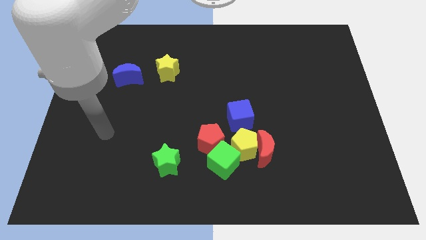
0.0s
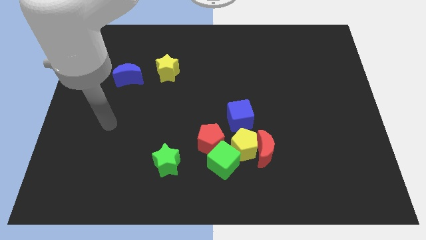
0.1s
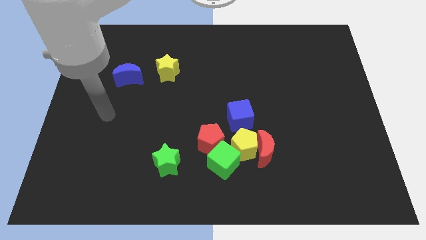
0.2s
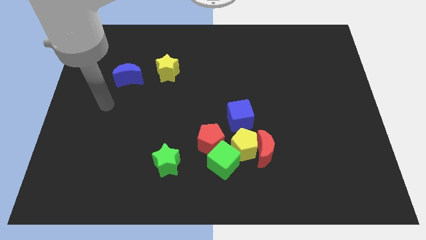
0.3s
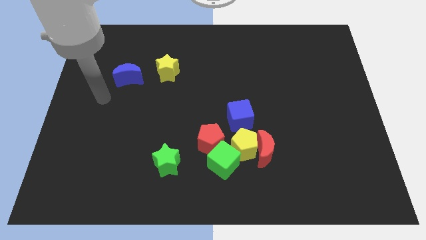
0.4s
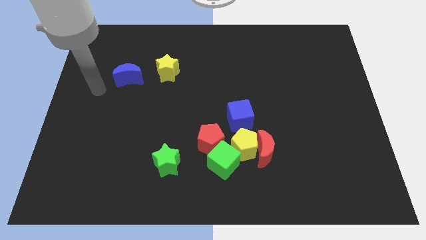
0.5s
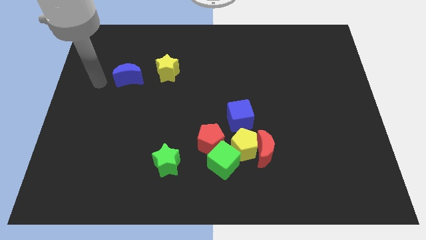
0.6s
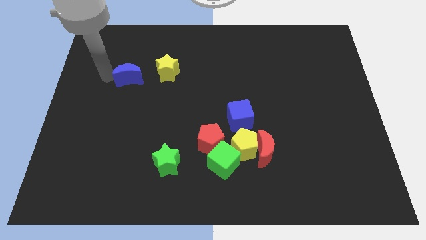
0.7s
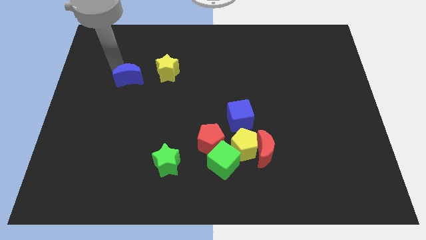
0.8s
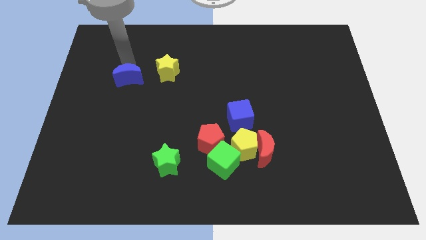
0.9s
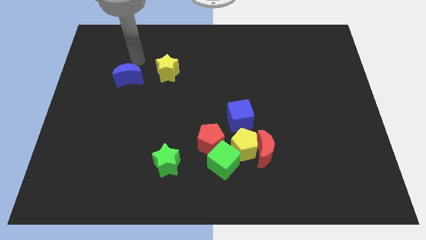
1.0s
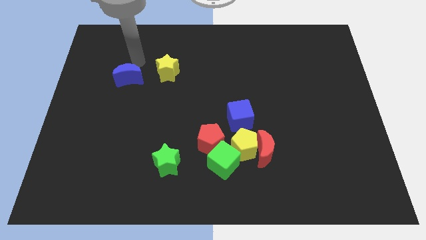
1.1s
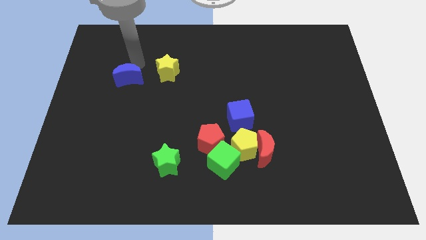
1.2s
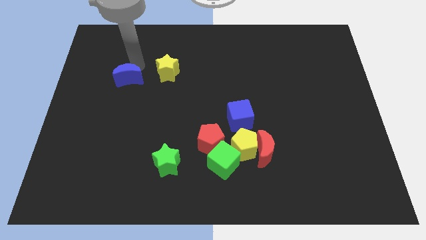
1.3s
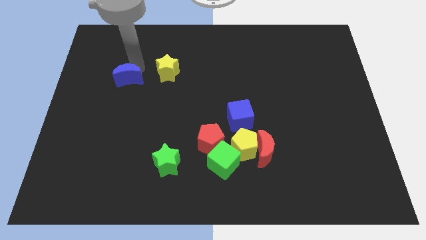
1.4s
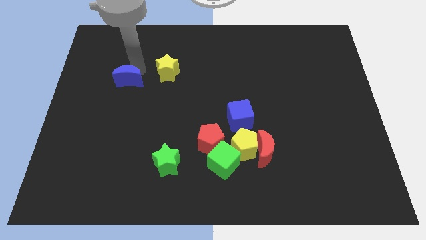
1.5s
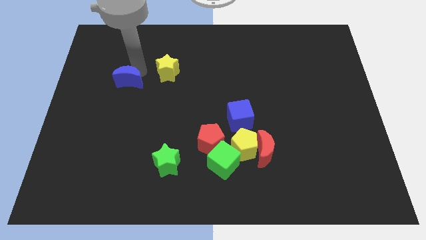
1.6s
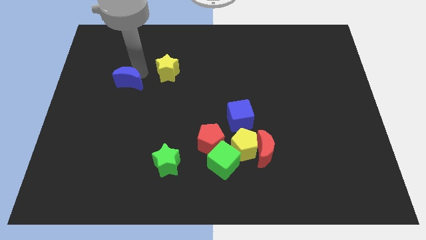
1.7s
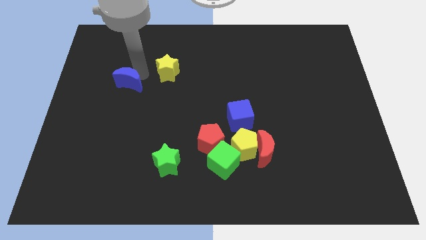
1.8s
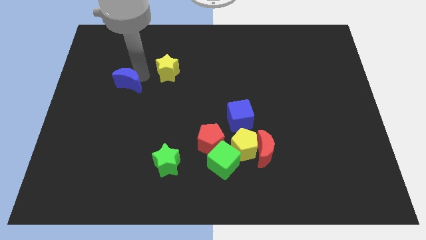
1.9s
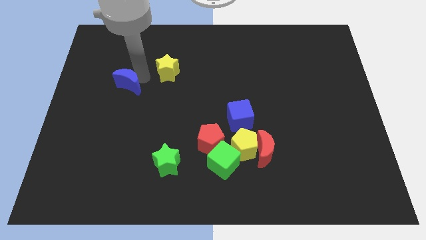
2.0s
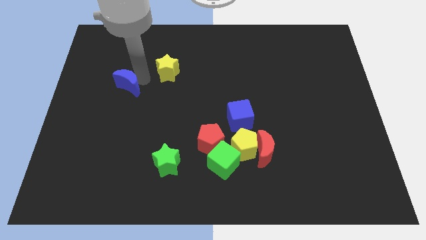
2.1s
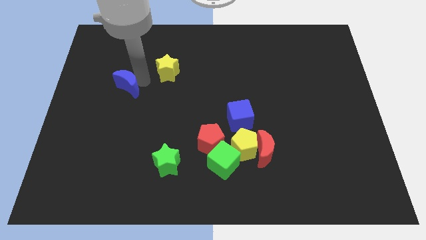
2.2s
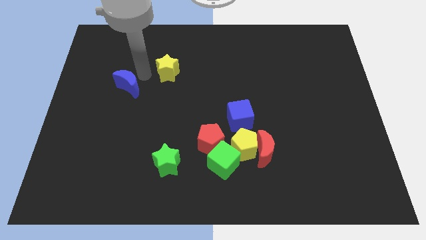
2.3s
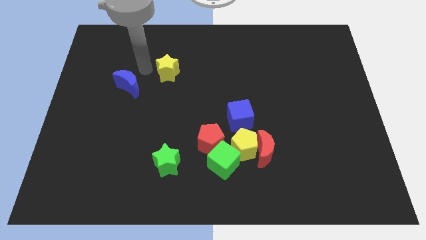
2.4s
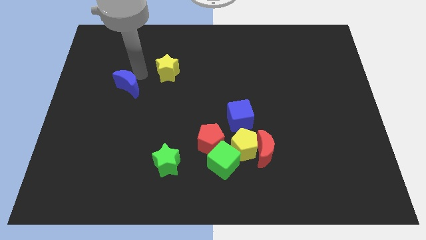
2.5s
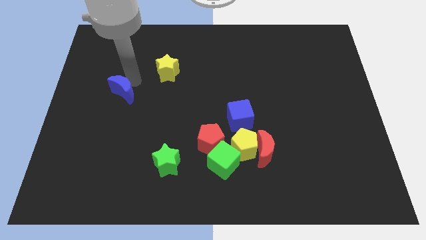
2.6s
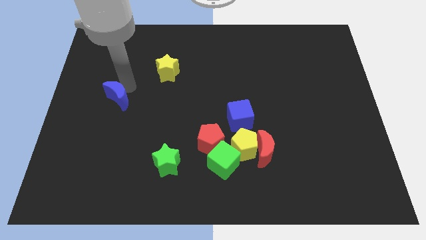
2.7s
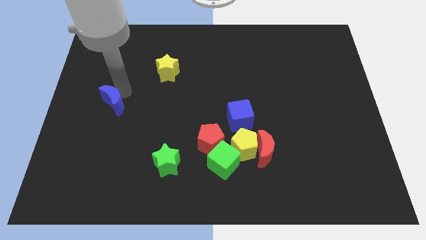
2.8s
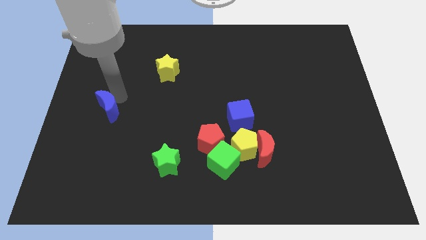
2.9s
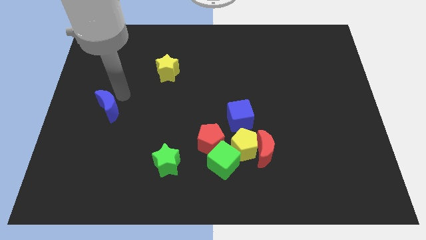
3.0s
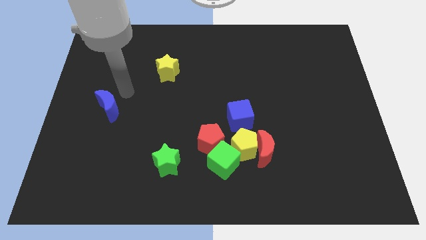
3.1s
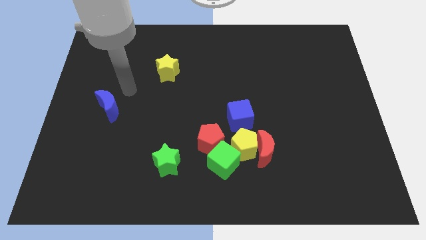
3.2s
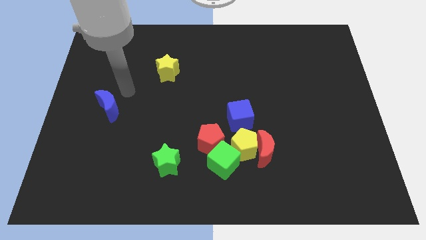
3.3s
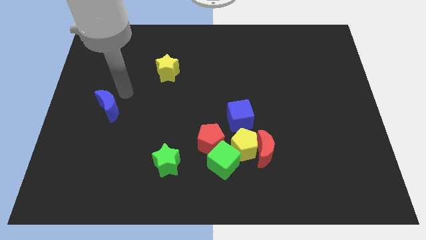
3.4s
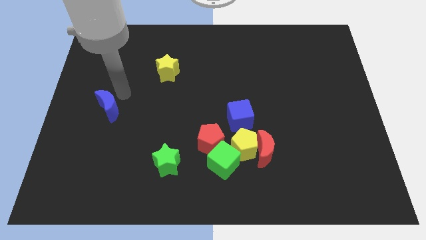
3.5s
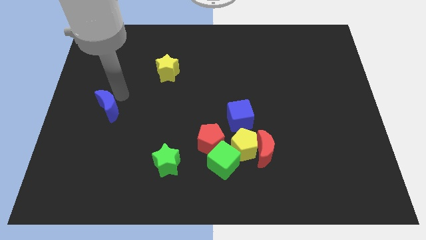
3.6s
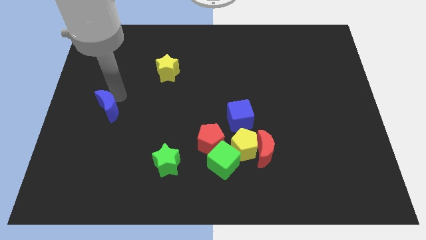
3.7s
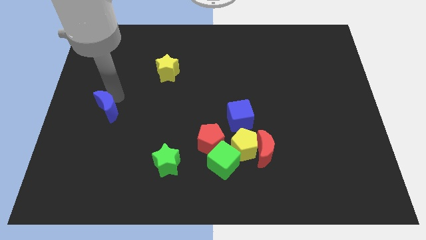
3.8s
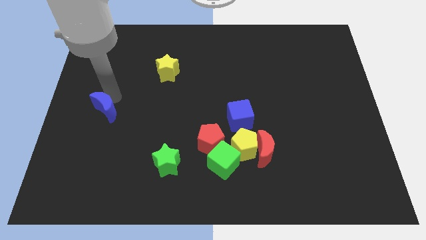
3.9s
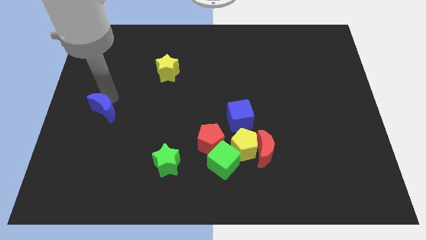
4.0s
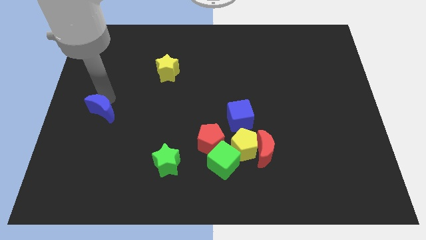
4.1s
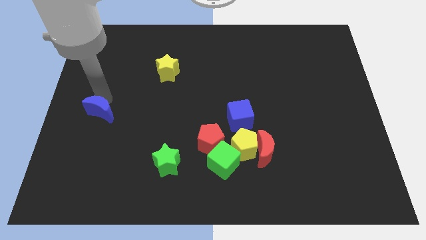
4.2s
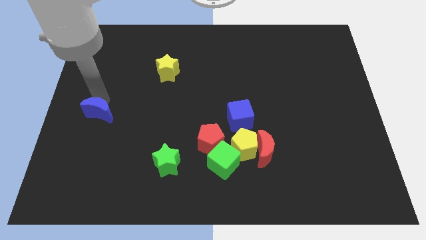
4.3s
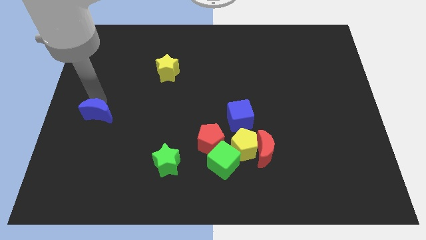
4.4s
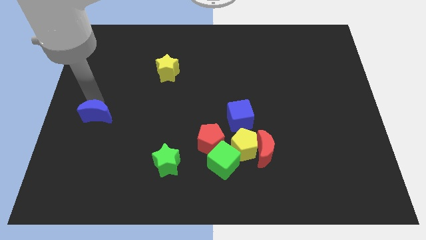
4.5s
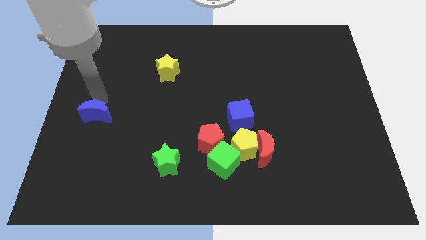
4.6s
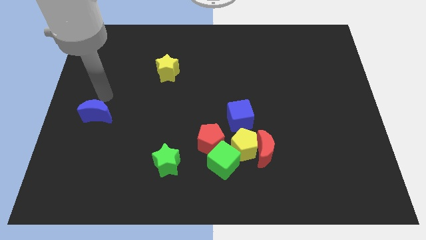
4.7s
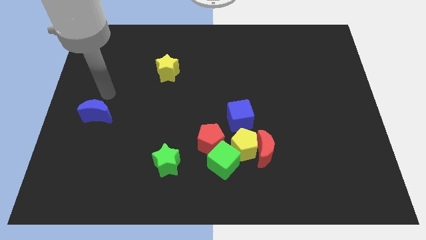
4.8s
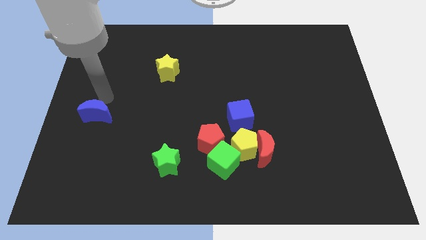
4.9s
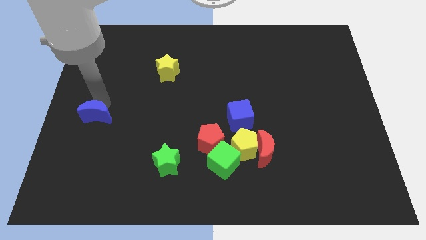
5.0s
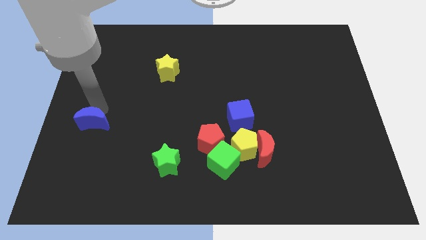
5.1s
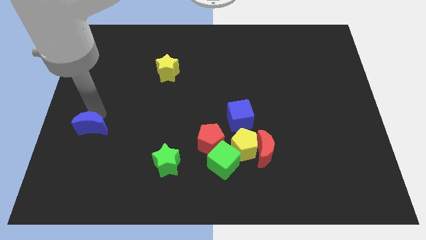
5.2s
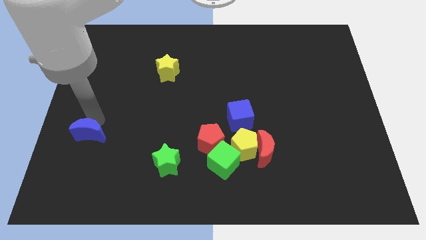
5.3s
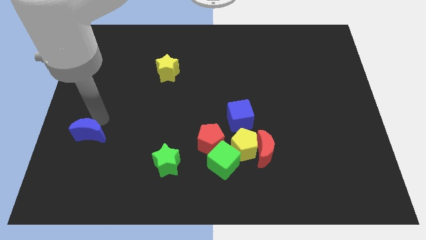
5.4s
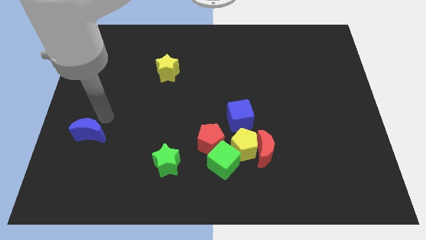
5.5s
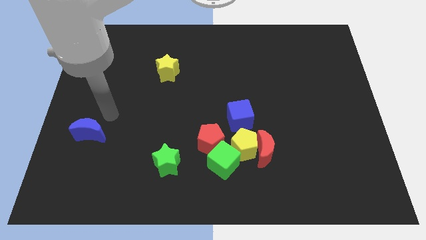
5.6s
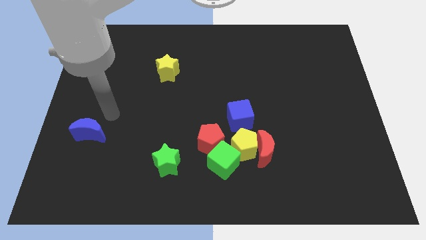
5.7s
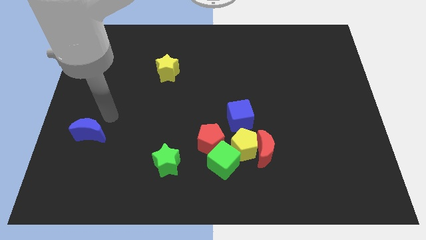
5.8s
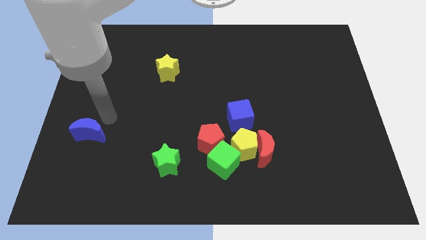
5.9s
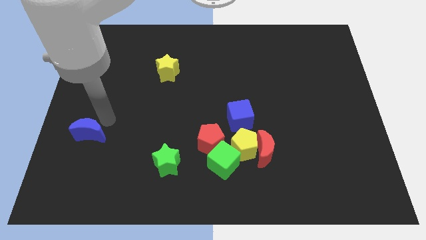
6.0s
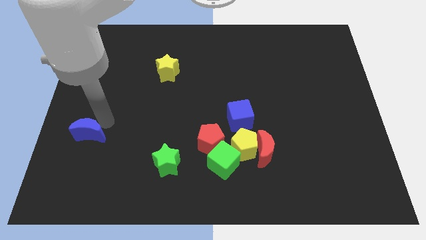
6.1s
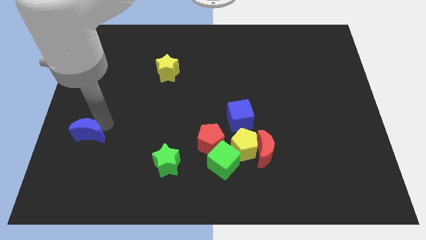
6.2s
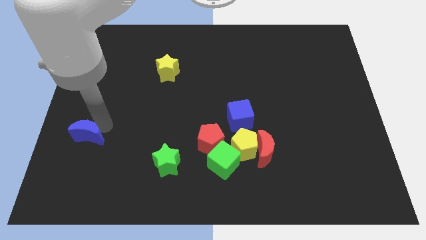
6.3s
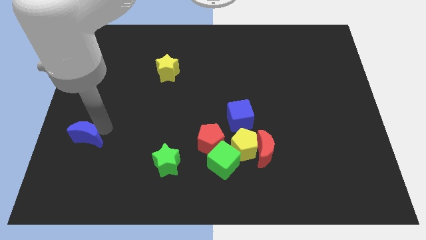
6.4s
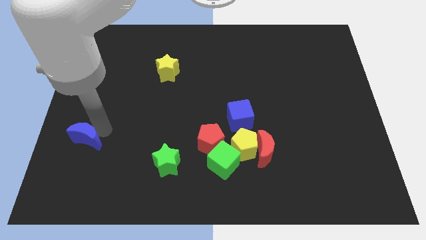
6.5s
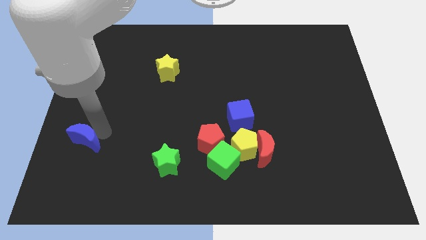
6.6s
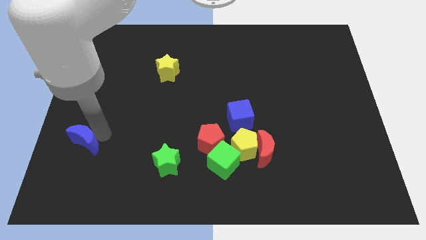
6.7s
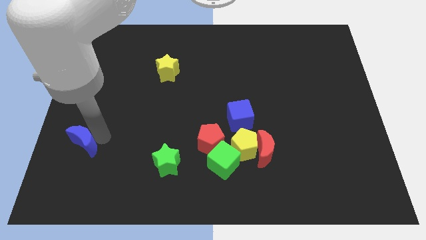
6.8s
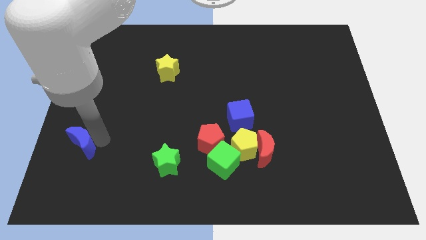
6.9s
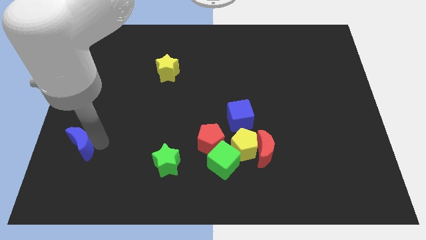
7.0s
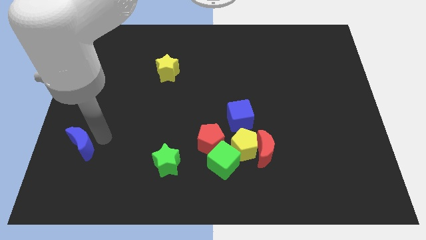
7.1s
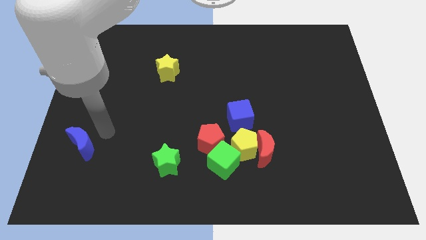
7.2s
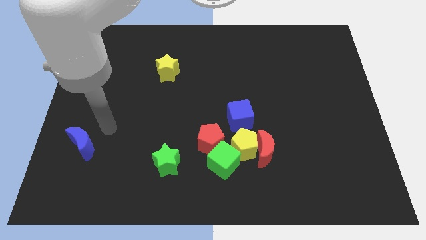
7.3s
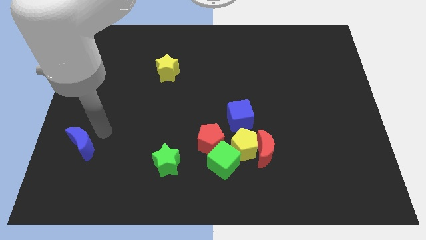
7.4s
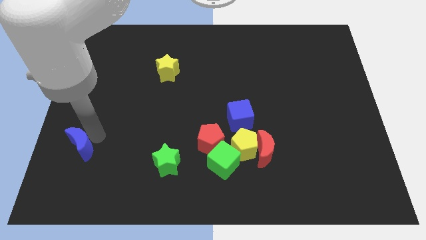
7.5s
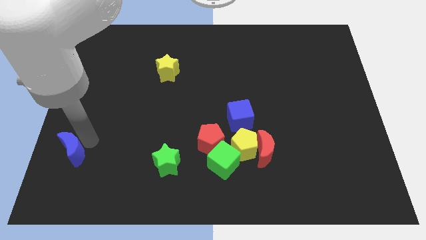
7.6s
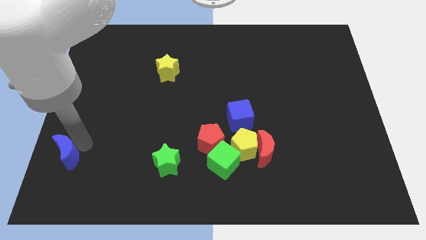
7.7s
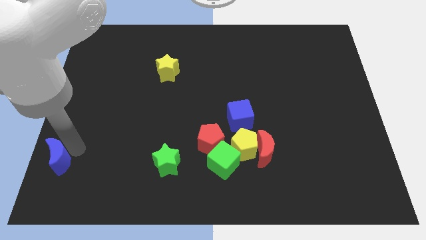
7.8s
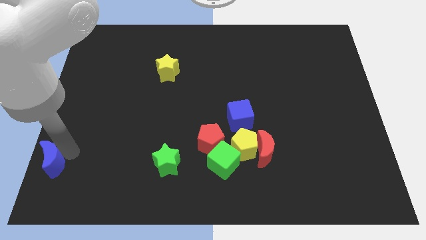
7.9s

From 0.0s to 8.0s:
move the blue moon to the bottom left
